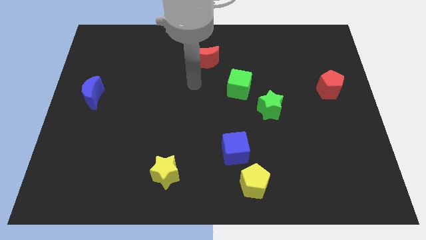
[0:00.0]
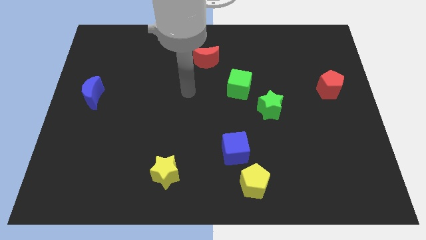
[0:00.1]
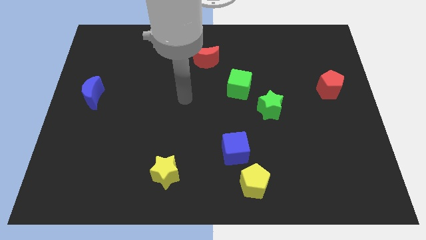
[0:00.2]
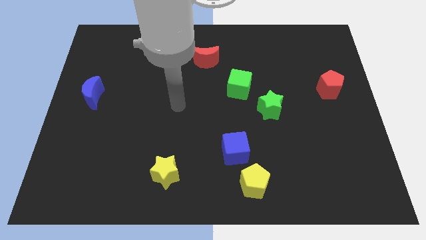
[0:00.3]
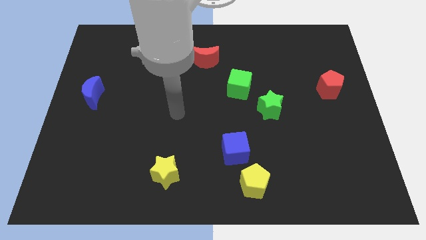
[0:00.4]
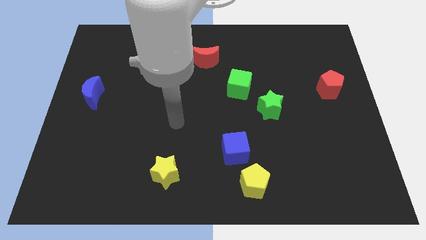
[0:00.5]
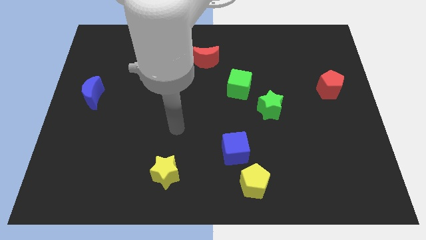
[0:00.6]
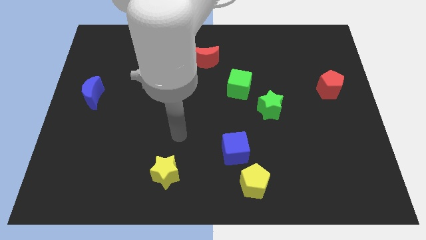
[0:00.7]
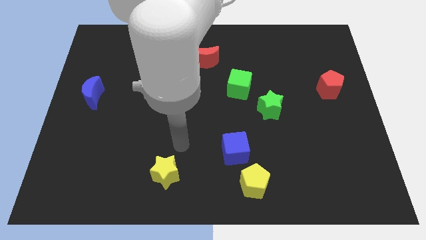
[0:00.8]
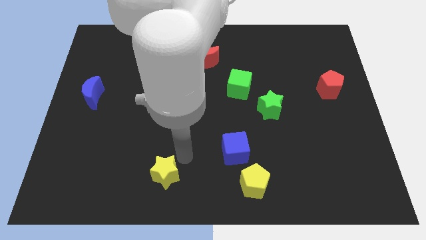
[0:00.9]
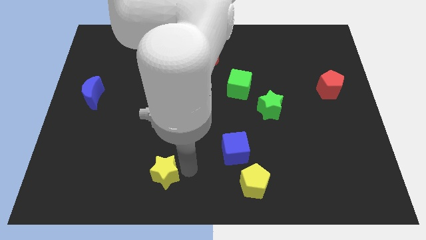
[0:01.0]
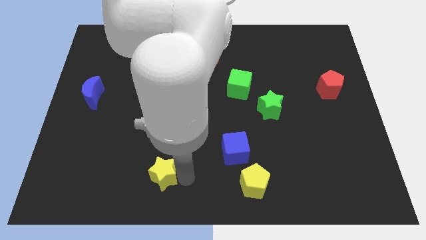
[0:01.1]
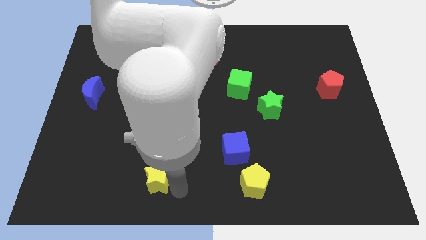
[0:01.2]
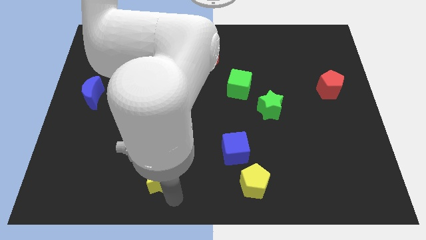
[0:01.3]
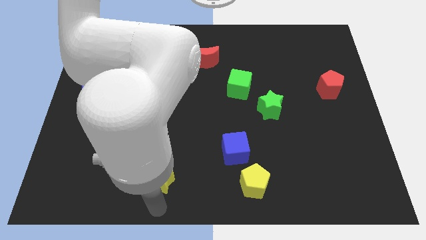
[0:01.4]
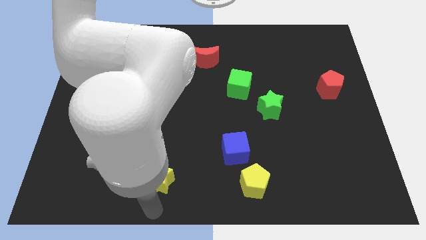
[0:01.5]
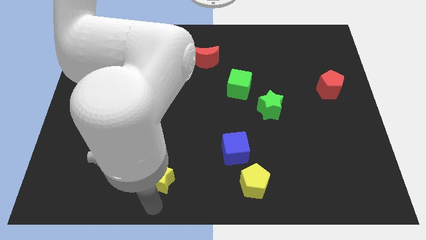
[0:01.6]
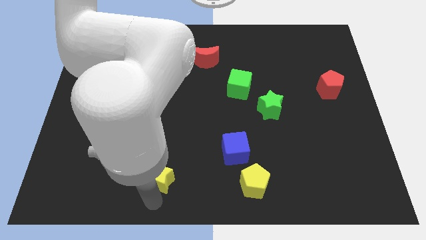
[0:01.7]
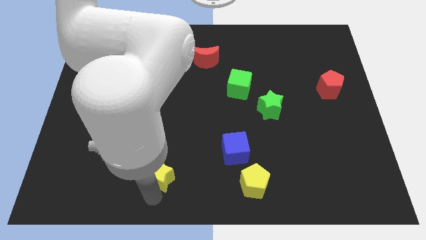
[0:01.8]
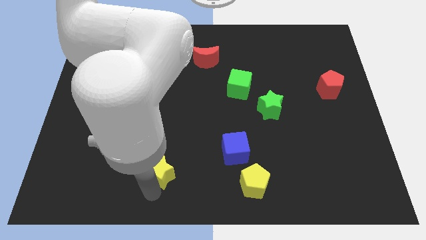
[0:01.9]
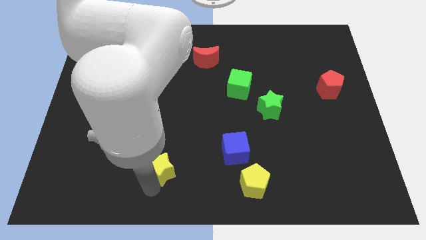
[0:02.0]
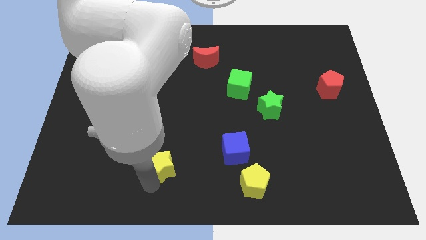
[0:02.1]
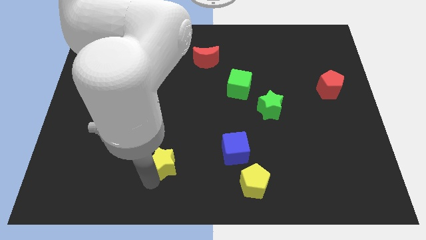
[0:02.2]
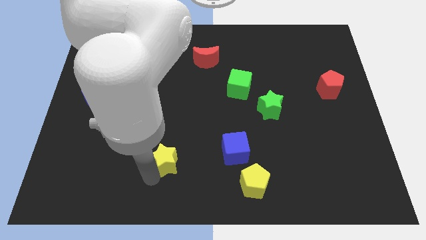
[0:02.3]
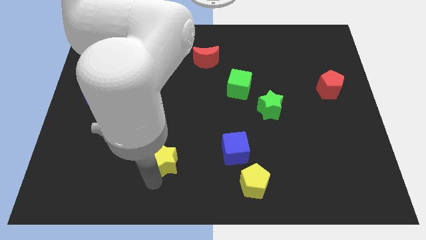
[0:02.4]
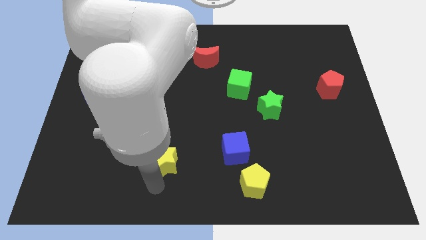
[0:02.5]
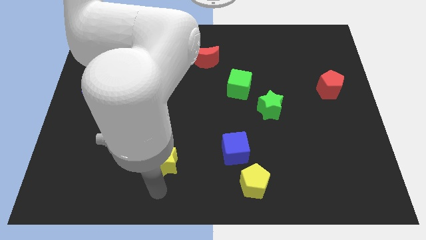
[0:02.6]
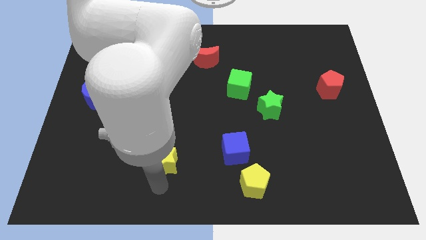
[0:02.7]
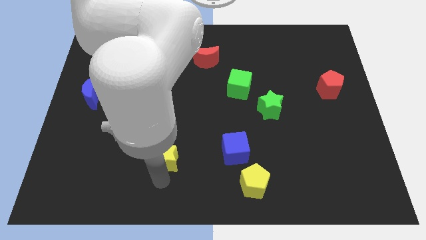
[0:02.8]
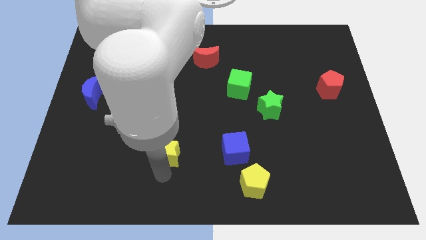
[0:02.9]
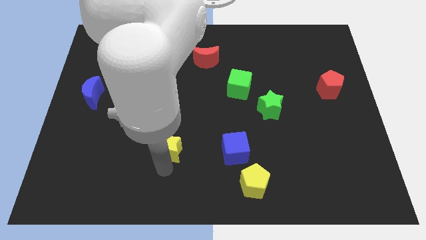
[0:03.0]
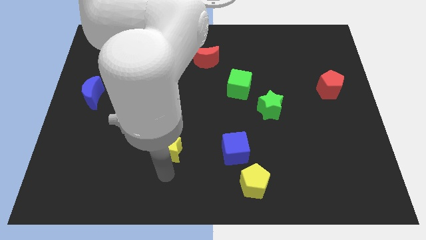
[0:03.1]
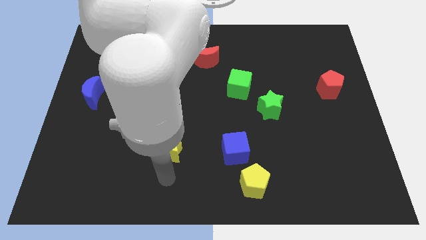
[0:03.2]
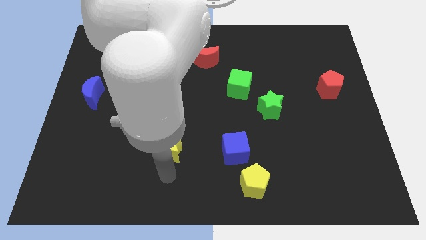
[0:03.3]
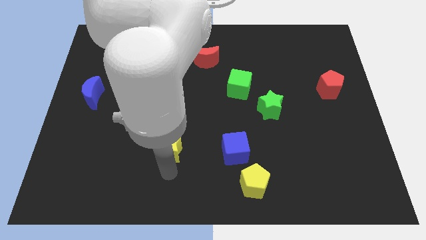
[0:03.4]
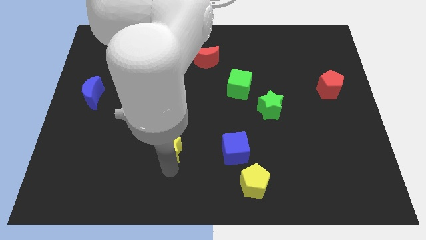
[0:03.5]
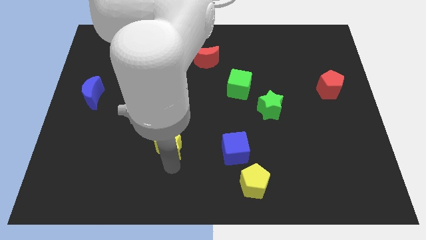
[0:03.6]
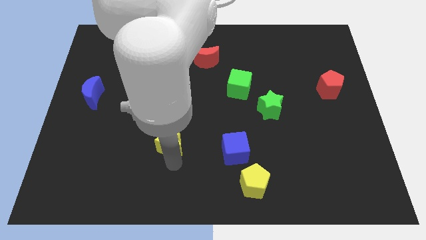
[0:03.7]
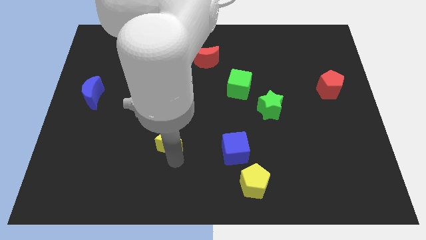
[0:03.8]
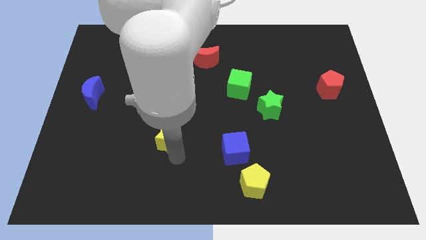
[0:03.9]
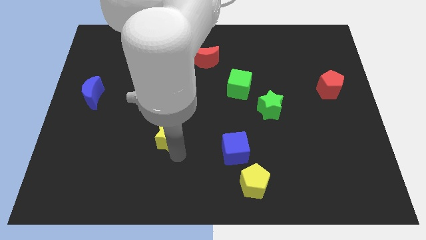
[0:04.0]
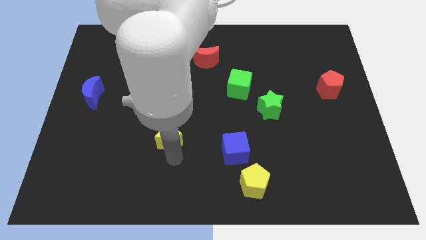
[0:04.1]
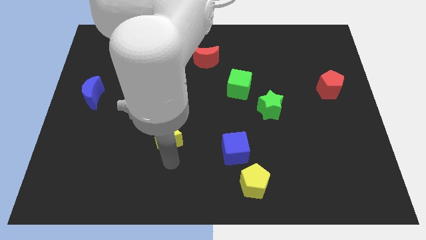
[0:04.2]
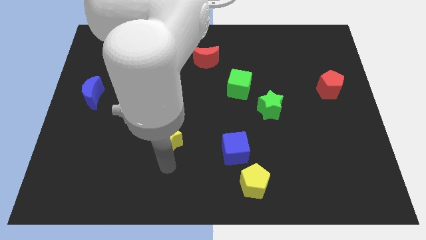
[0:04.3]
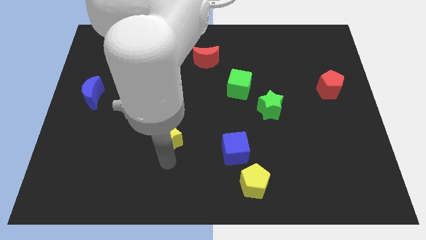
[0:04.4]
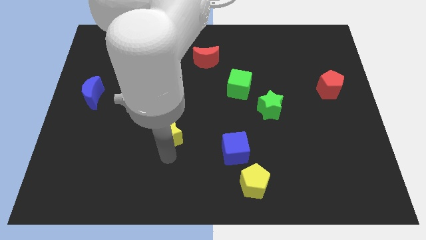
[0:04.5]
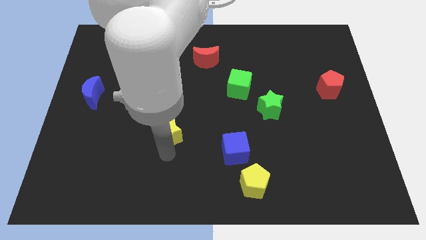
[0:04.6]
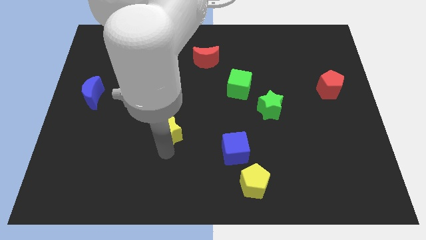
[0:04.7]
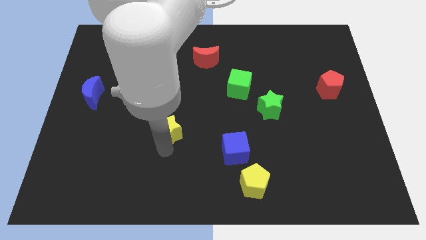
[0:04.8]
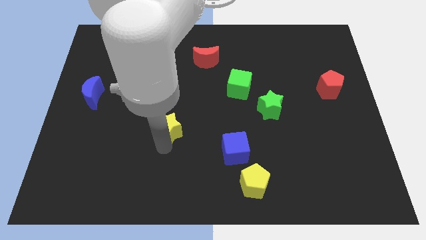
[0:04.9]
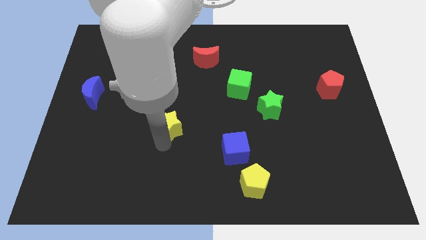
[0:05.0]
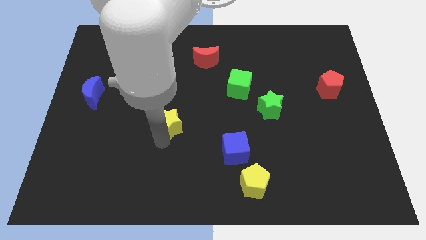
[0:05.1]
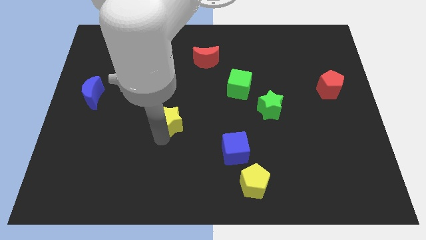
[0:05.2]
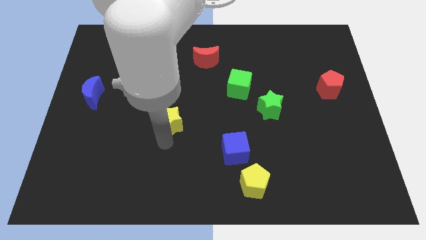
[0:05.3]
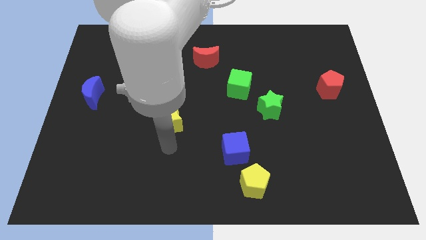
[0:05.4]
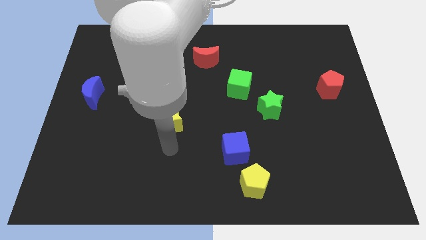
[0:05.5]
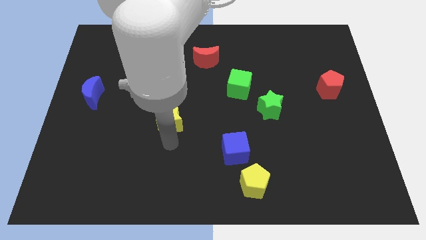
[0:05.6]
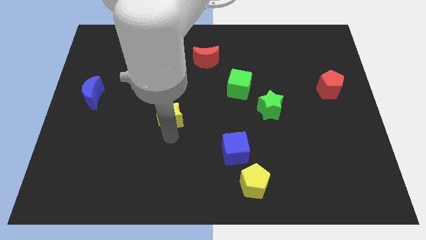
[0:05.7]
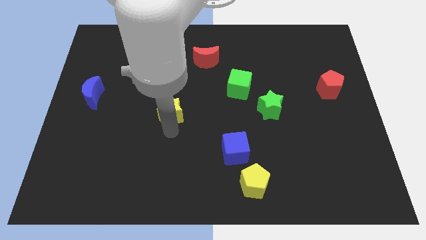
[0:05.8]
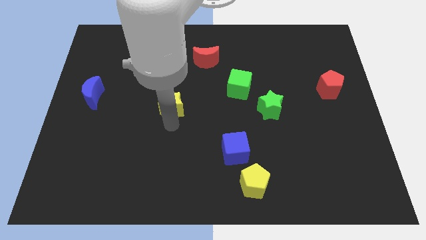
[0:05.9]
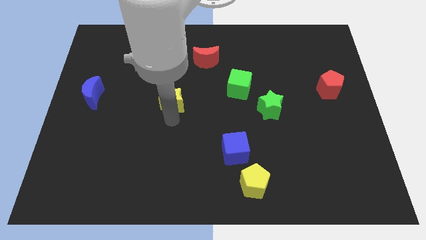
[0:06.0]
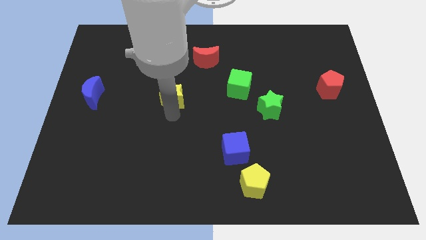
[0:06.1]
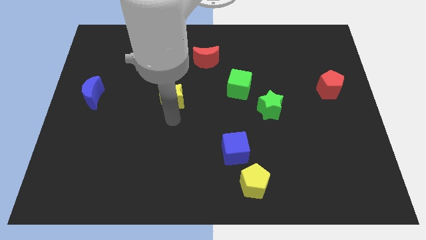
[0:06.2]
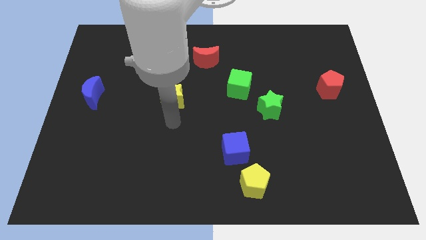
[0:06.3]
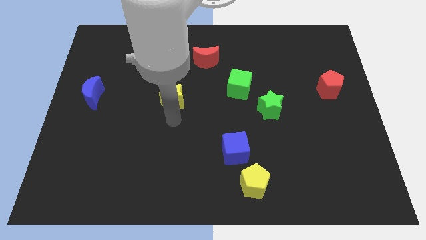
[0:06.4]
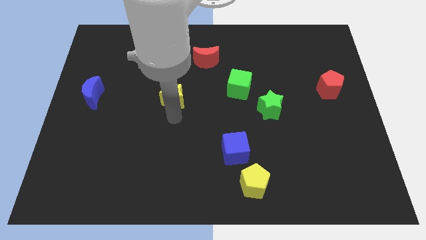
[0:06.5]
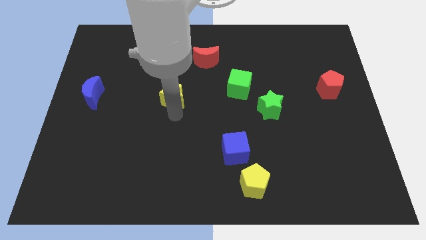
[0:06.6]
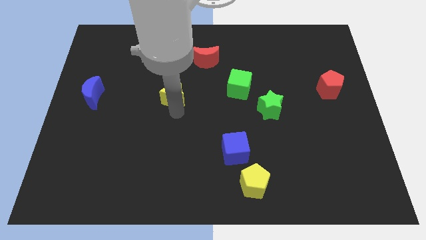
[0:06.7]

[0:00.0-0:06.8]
push the yellow star upwards

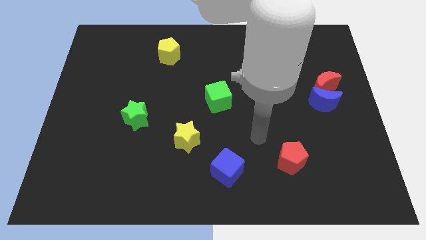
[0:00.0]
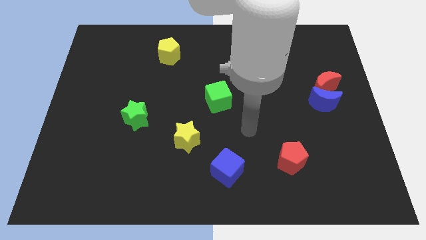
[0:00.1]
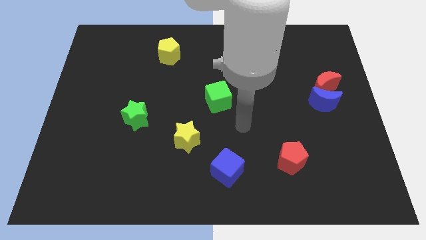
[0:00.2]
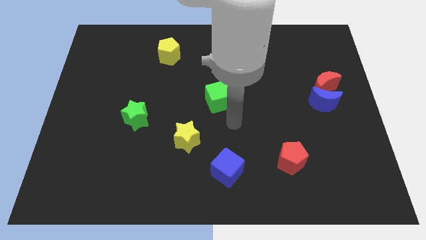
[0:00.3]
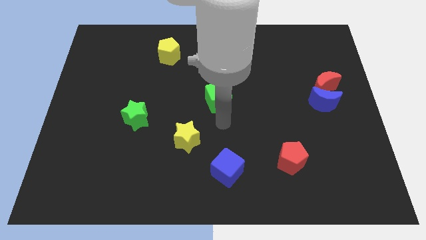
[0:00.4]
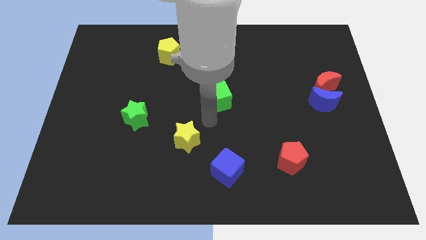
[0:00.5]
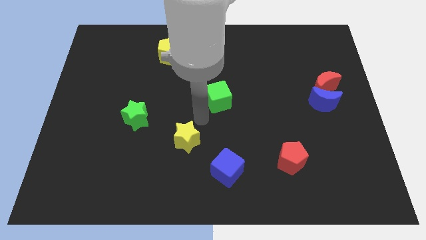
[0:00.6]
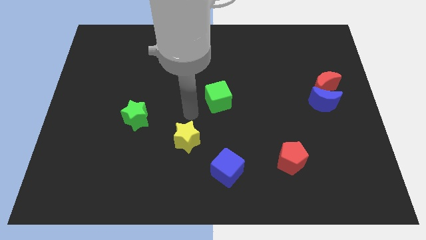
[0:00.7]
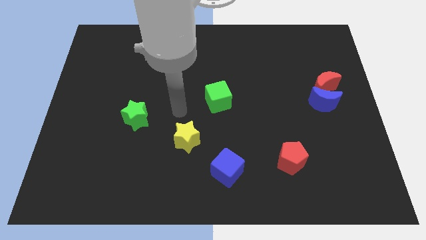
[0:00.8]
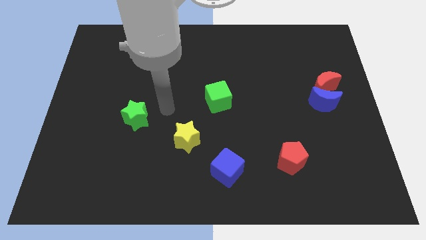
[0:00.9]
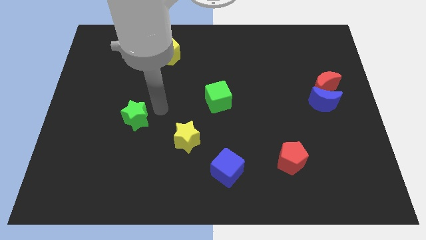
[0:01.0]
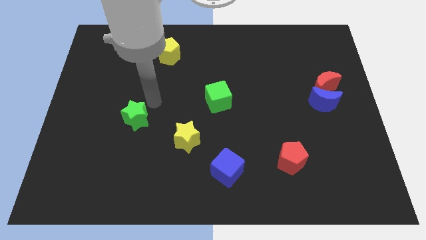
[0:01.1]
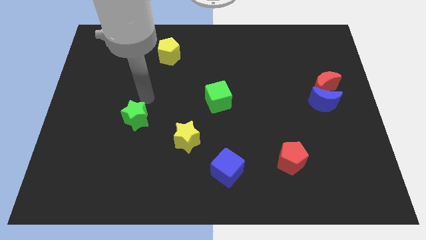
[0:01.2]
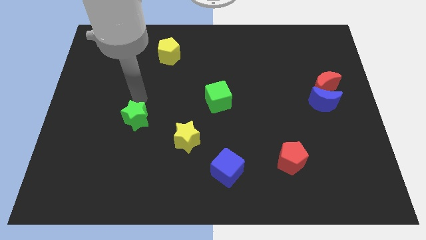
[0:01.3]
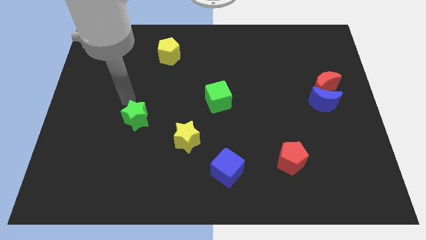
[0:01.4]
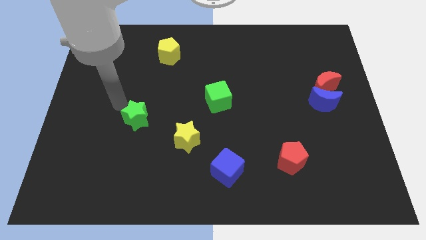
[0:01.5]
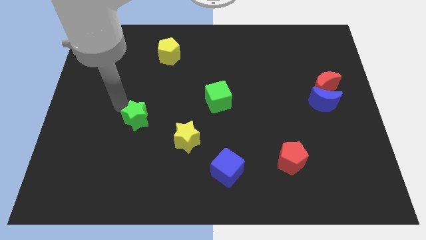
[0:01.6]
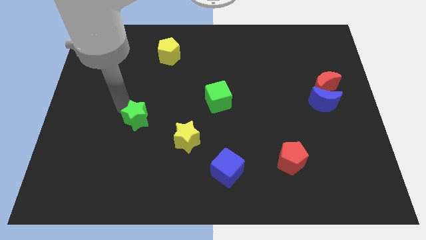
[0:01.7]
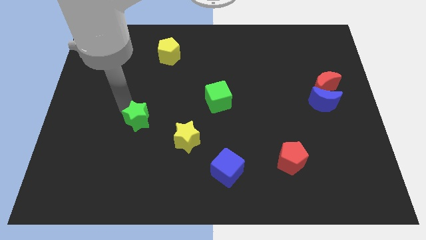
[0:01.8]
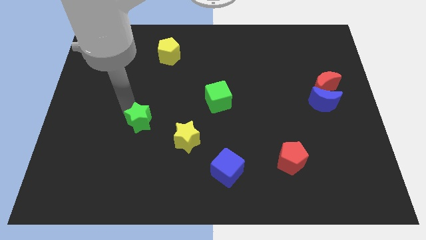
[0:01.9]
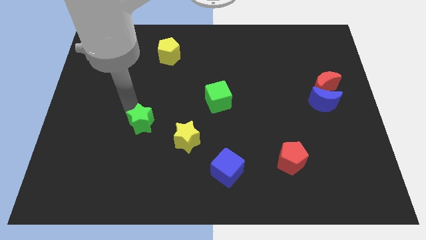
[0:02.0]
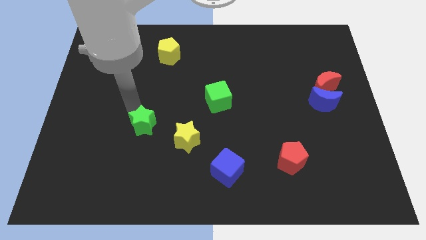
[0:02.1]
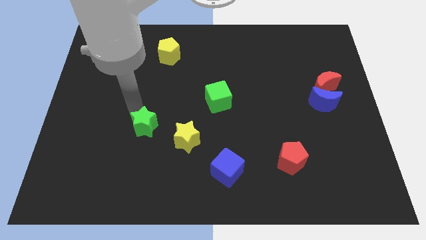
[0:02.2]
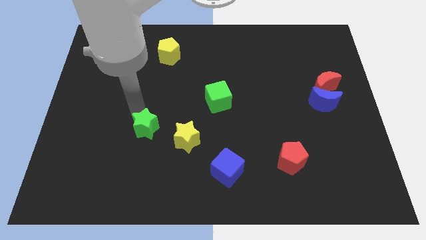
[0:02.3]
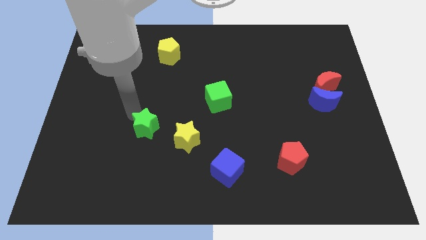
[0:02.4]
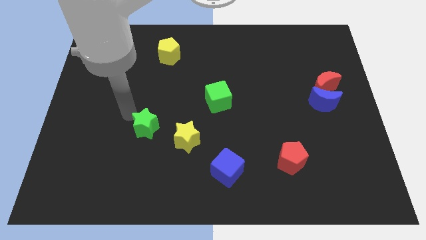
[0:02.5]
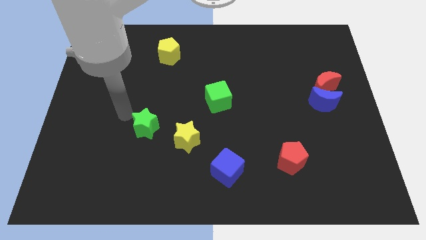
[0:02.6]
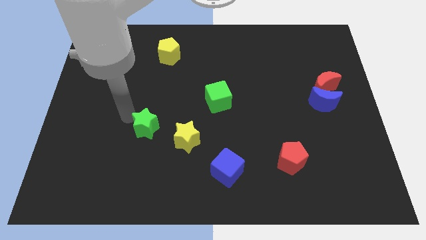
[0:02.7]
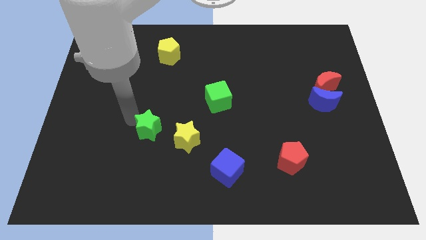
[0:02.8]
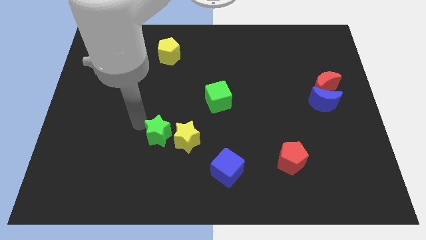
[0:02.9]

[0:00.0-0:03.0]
push the green star down and right a little
